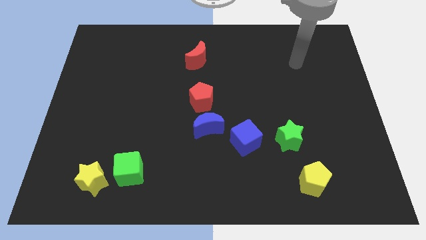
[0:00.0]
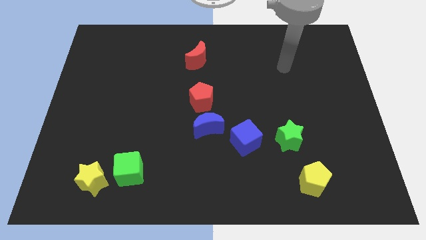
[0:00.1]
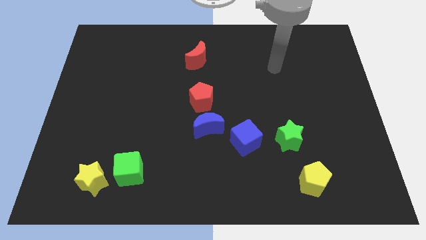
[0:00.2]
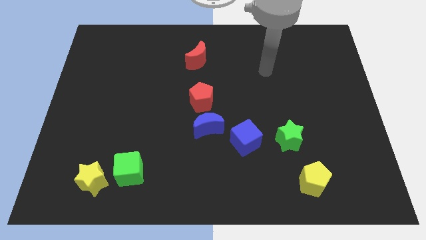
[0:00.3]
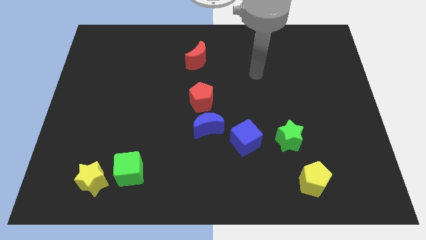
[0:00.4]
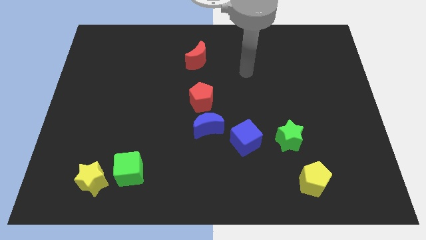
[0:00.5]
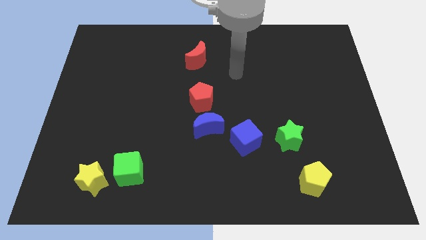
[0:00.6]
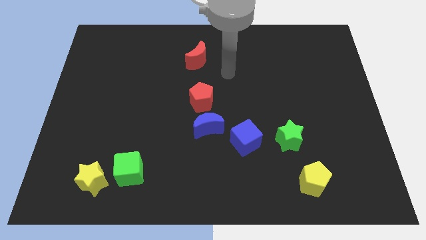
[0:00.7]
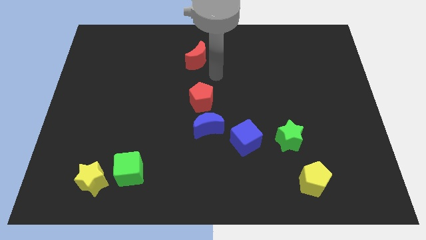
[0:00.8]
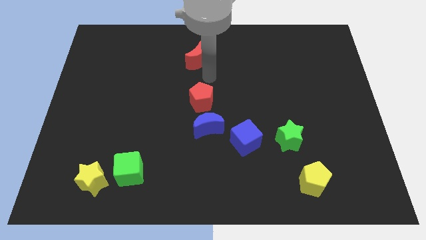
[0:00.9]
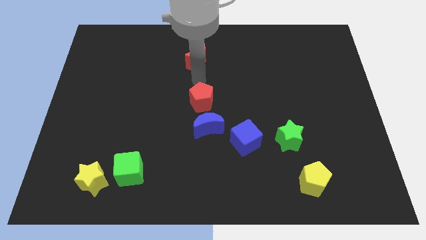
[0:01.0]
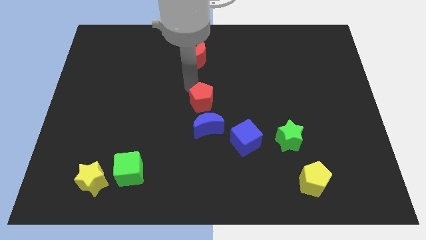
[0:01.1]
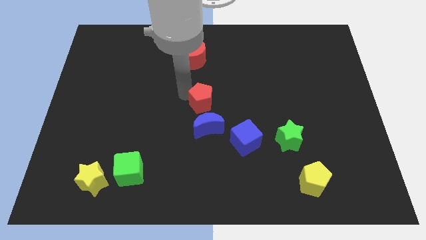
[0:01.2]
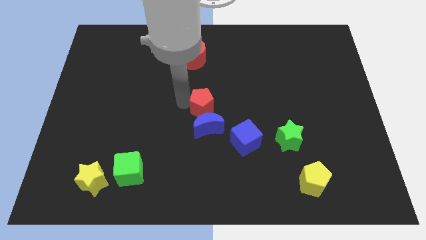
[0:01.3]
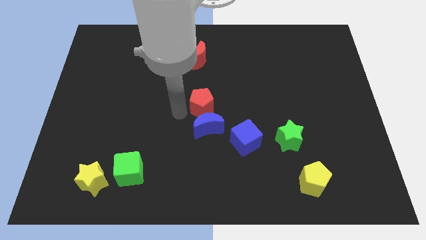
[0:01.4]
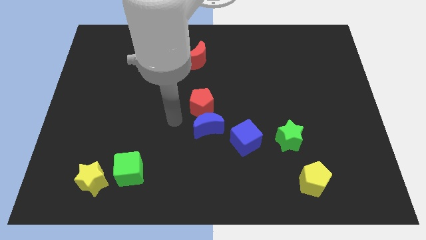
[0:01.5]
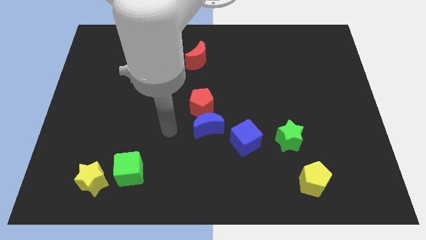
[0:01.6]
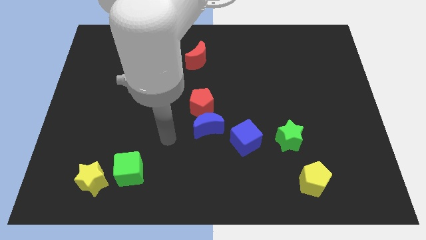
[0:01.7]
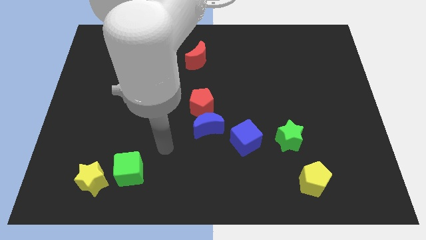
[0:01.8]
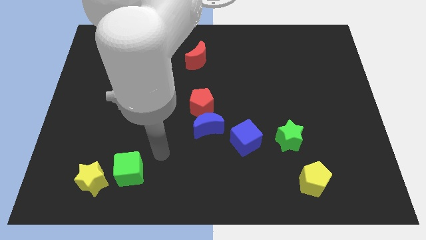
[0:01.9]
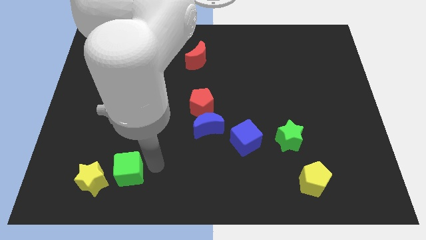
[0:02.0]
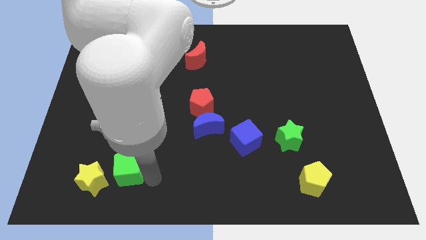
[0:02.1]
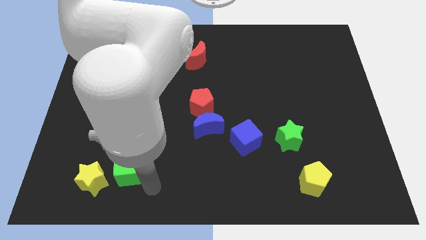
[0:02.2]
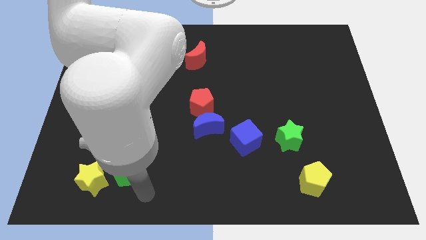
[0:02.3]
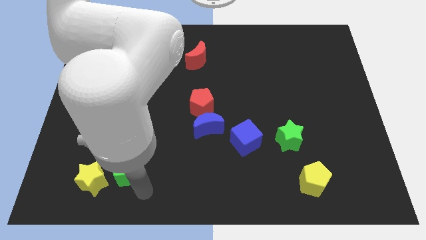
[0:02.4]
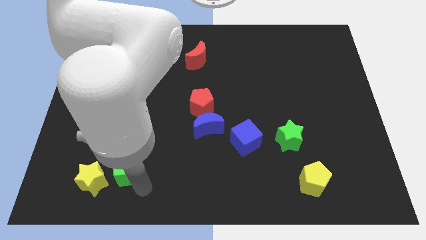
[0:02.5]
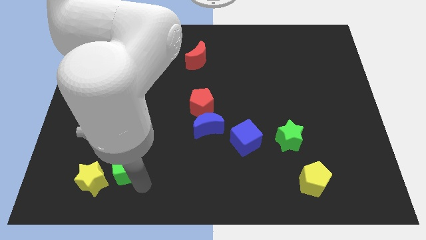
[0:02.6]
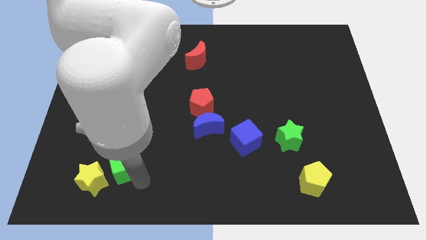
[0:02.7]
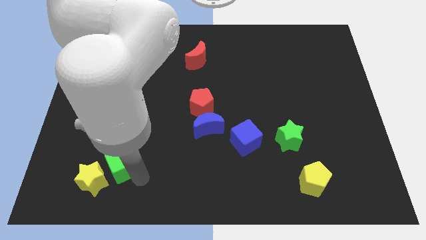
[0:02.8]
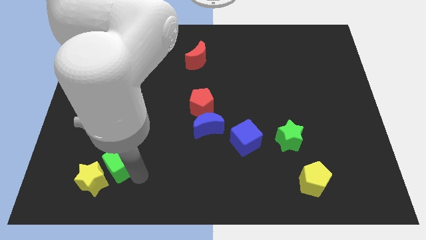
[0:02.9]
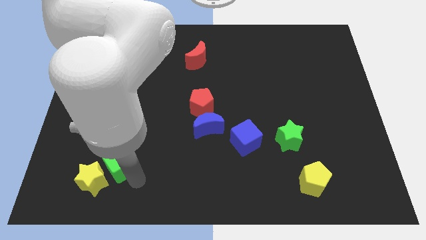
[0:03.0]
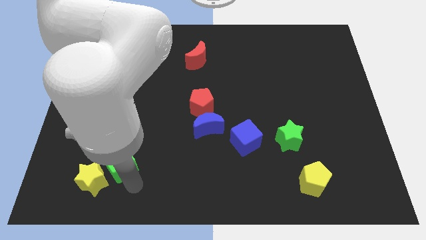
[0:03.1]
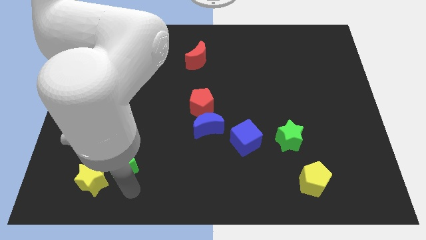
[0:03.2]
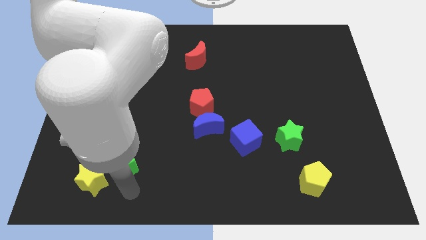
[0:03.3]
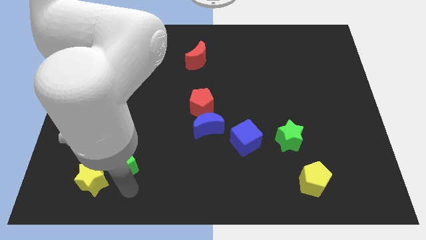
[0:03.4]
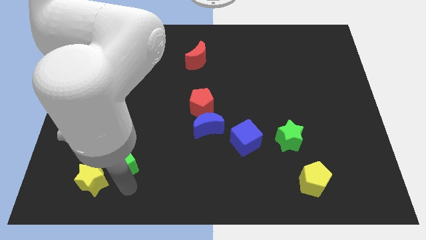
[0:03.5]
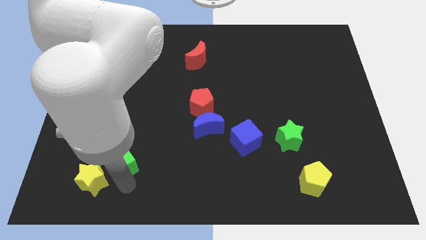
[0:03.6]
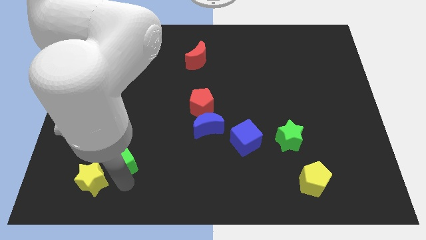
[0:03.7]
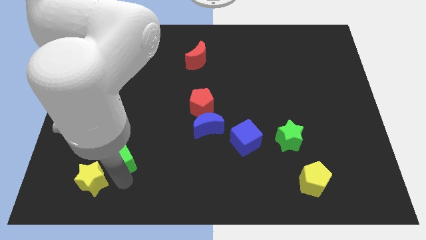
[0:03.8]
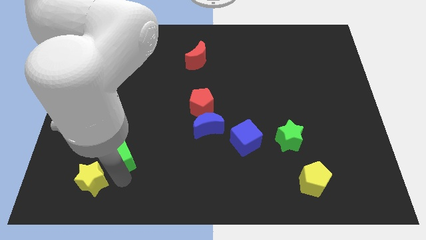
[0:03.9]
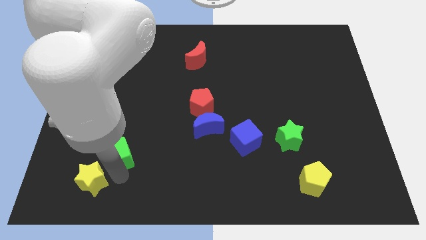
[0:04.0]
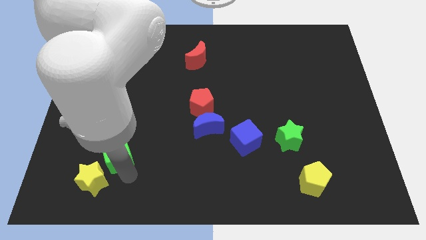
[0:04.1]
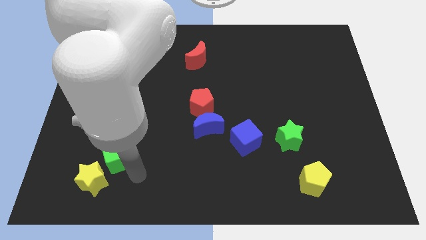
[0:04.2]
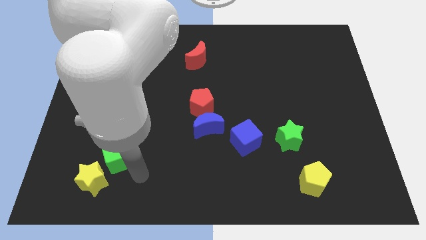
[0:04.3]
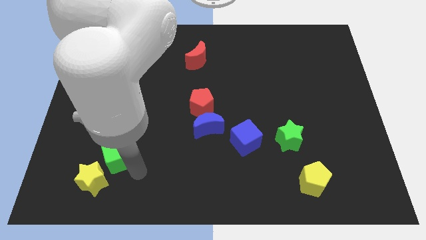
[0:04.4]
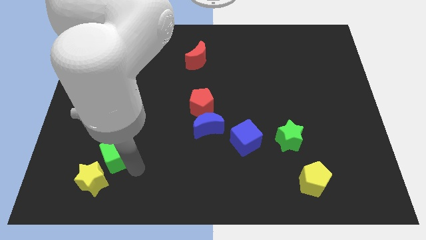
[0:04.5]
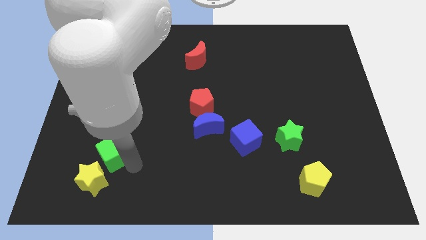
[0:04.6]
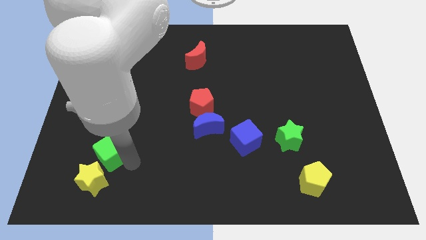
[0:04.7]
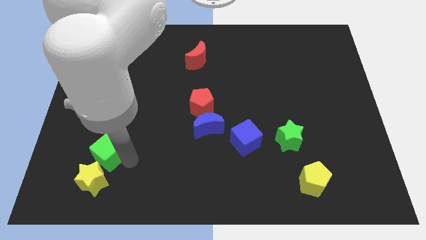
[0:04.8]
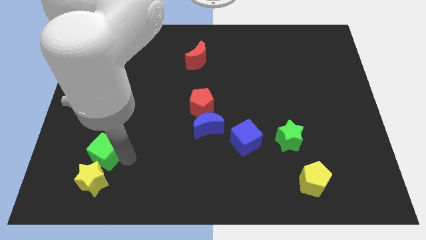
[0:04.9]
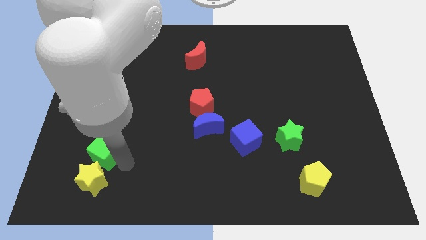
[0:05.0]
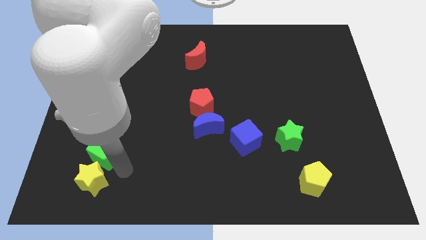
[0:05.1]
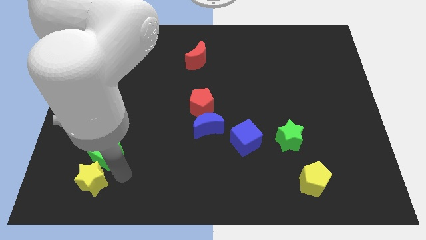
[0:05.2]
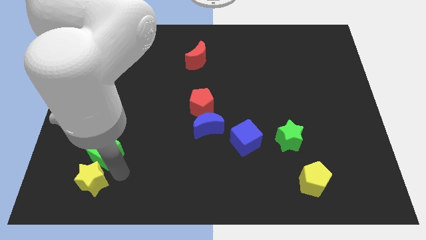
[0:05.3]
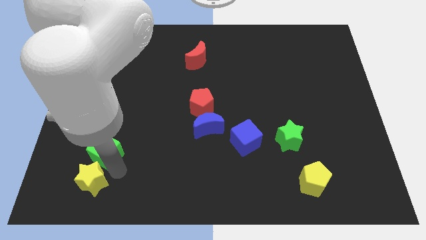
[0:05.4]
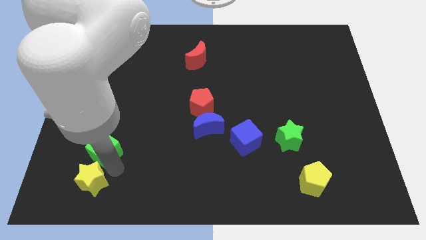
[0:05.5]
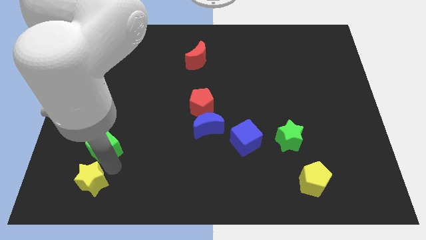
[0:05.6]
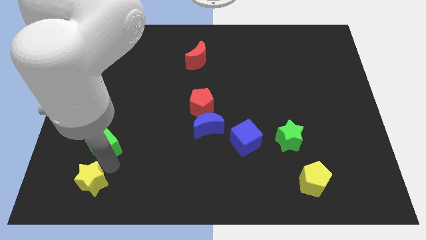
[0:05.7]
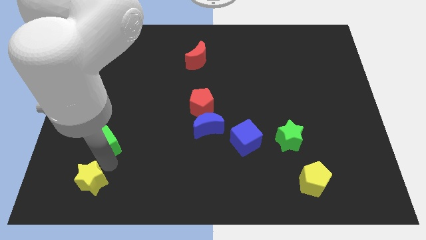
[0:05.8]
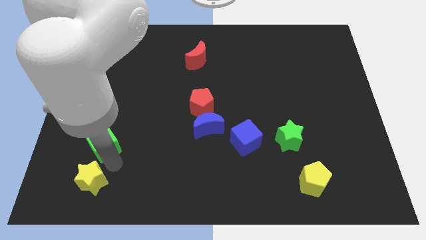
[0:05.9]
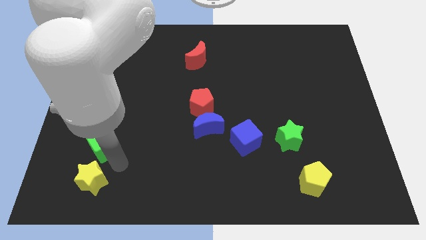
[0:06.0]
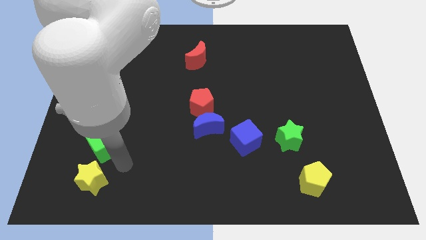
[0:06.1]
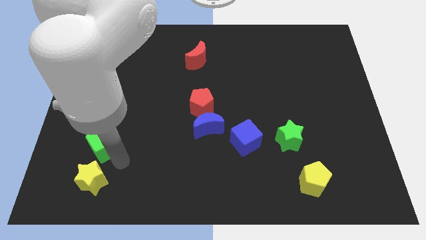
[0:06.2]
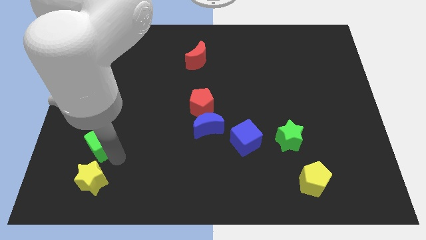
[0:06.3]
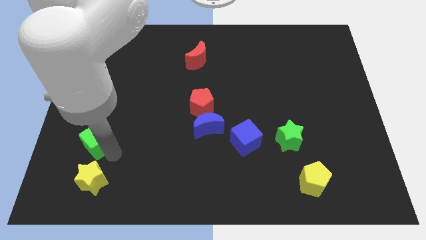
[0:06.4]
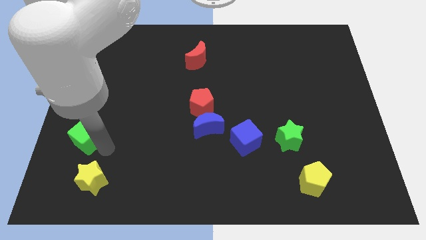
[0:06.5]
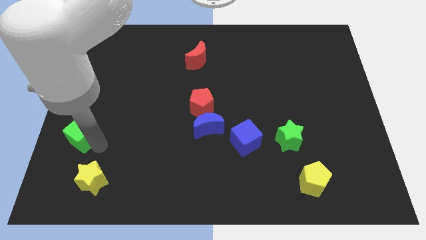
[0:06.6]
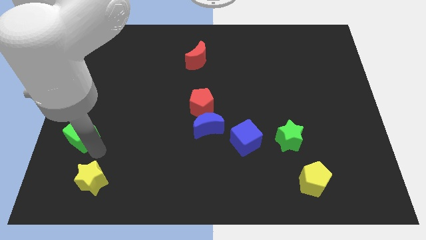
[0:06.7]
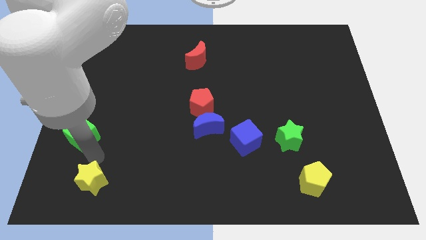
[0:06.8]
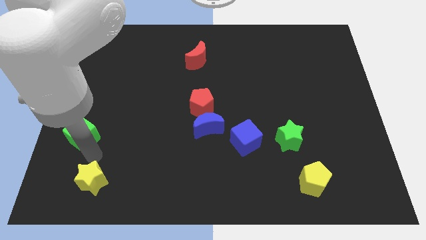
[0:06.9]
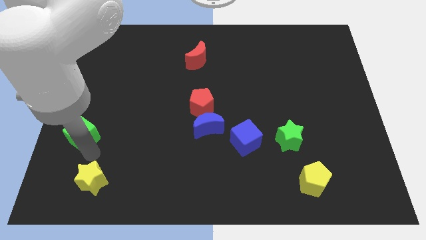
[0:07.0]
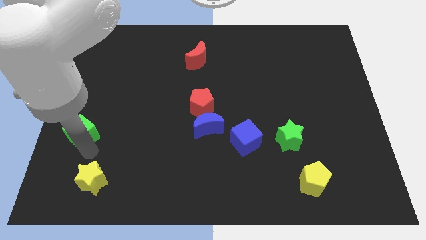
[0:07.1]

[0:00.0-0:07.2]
move the green cube to the left side of the board
